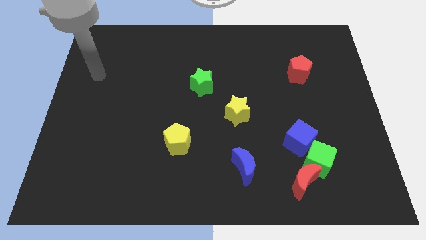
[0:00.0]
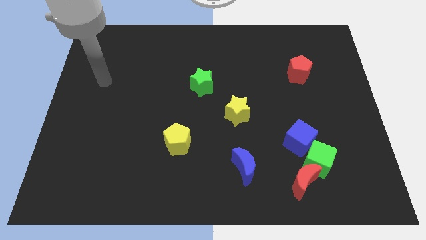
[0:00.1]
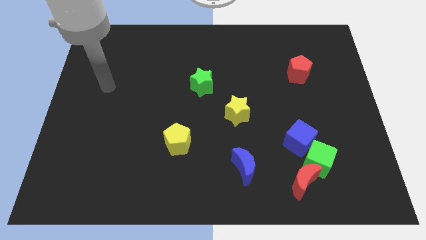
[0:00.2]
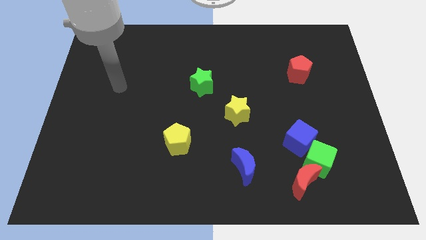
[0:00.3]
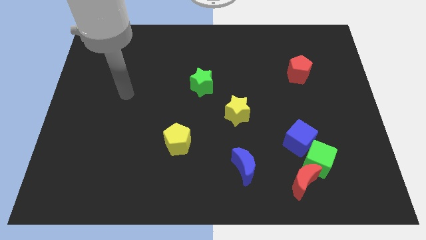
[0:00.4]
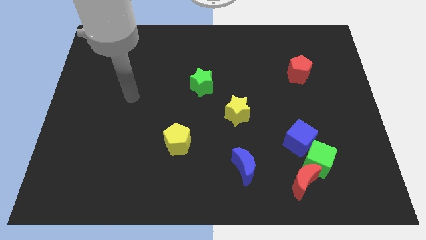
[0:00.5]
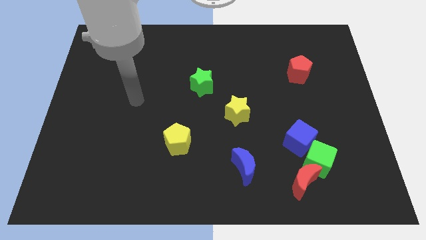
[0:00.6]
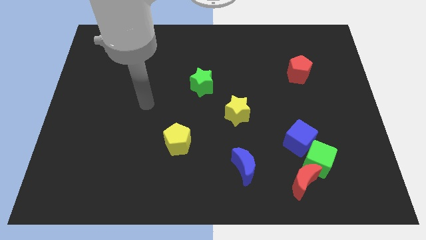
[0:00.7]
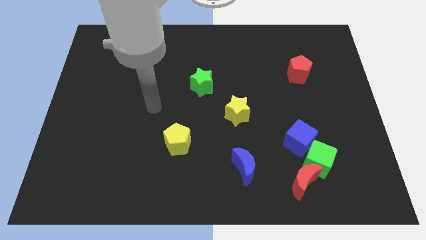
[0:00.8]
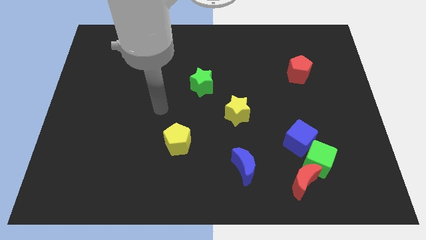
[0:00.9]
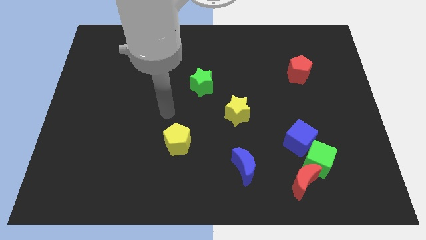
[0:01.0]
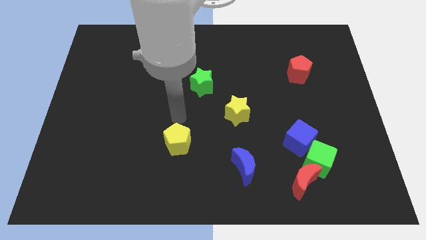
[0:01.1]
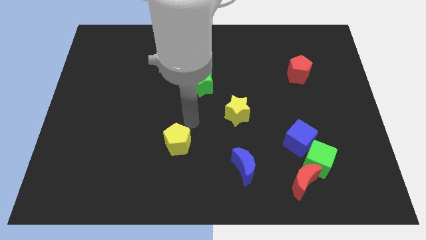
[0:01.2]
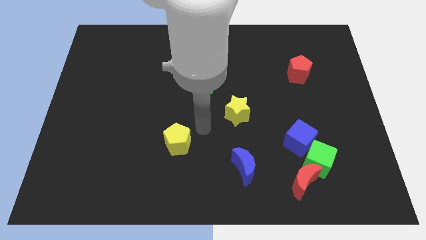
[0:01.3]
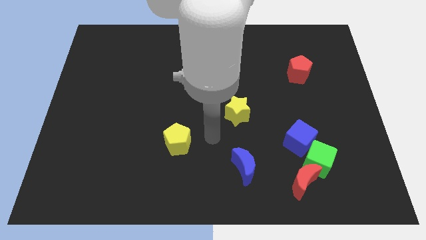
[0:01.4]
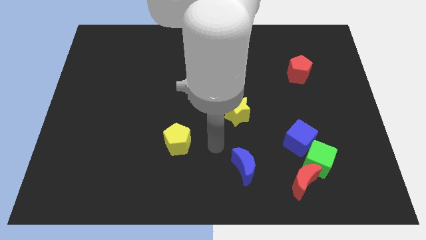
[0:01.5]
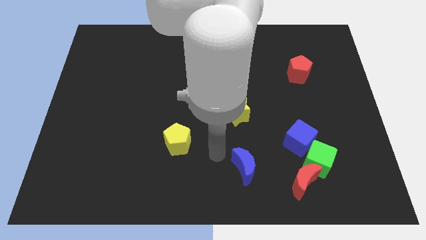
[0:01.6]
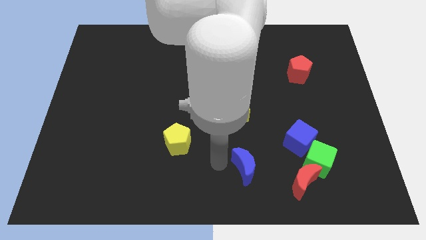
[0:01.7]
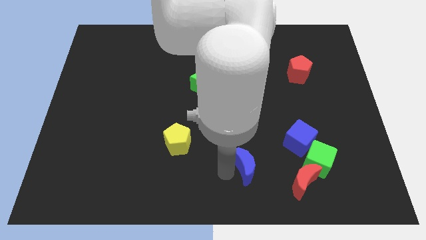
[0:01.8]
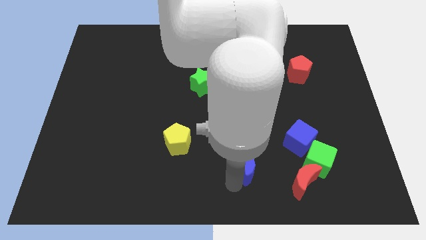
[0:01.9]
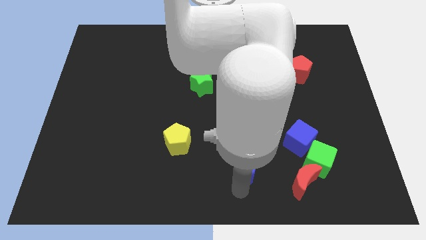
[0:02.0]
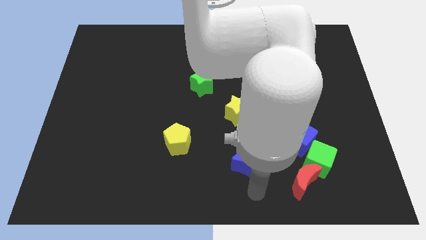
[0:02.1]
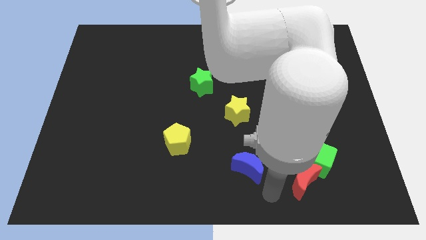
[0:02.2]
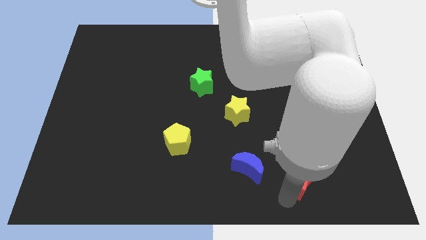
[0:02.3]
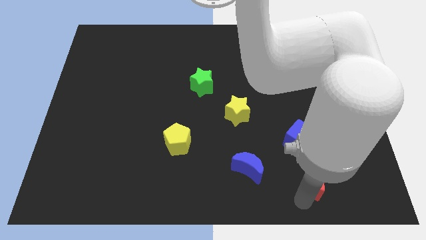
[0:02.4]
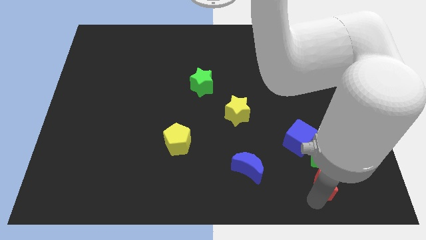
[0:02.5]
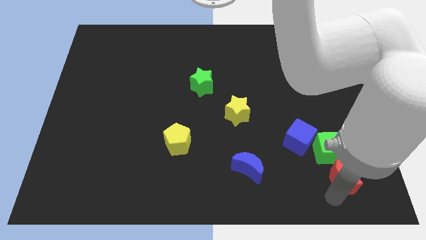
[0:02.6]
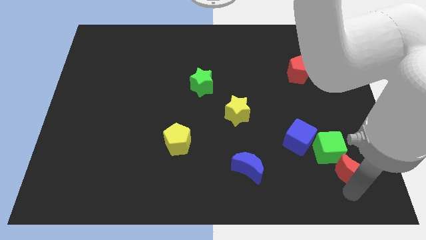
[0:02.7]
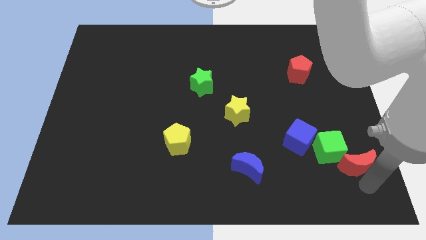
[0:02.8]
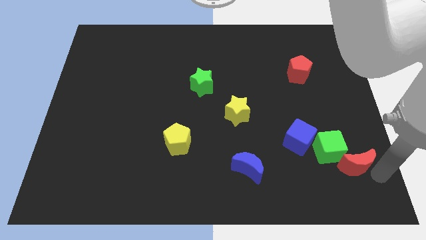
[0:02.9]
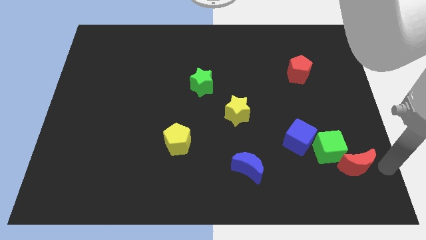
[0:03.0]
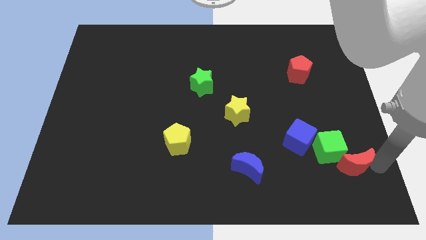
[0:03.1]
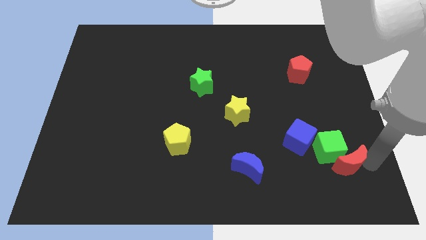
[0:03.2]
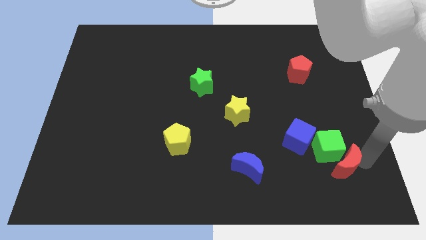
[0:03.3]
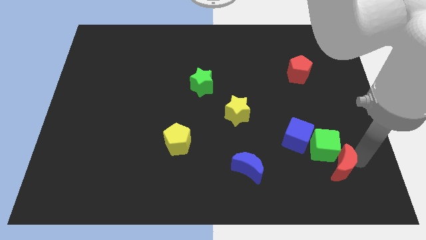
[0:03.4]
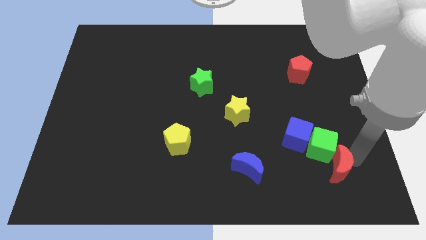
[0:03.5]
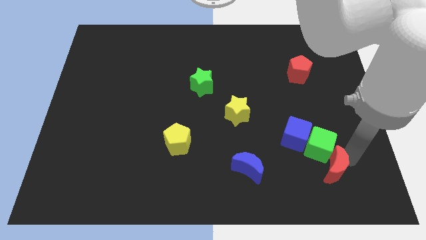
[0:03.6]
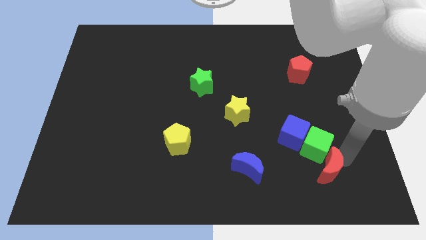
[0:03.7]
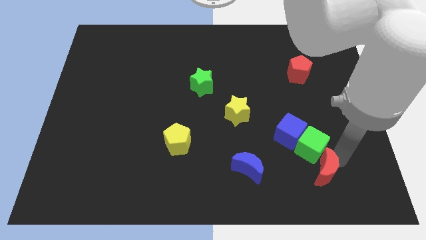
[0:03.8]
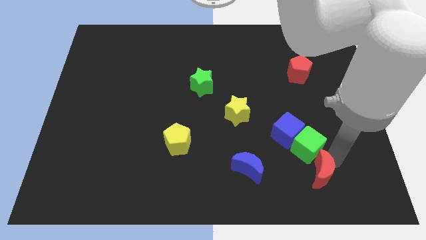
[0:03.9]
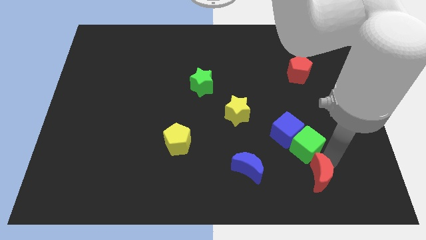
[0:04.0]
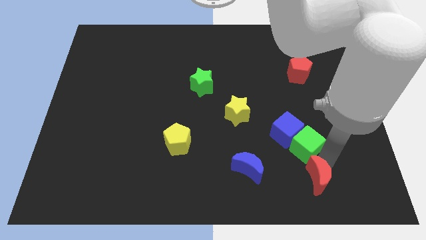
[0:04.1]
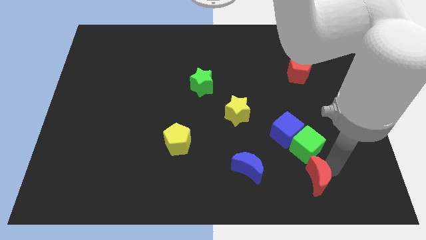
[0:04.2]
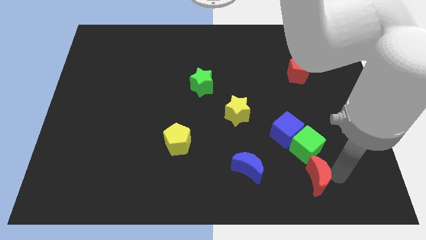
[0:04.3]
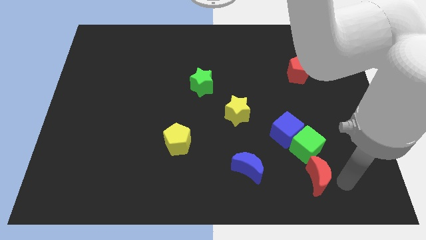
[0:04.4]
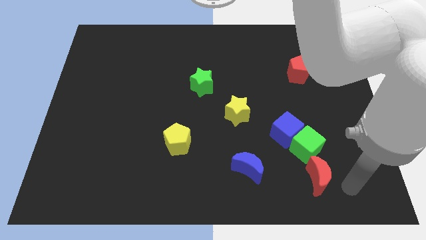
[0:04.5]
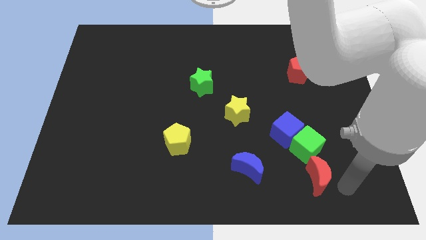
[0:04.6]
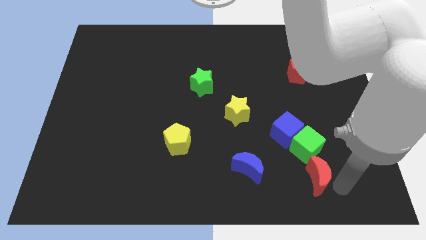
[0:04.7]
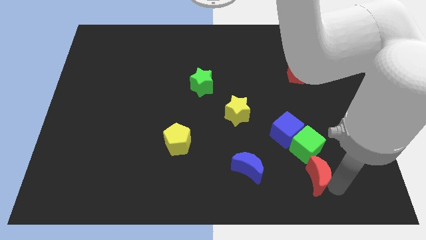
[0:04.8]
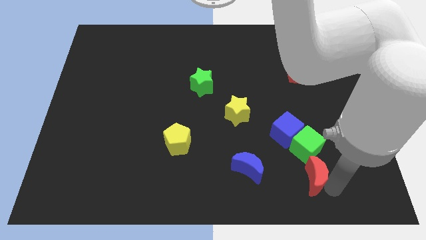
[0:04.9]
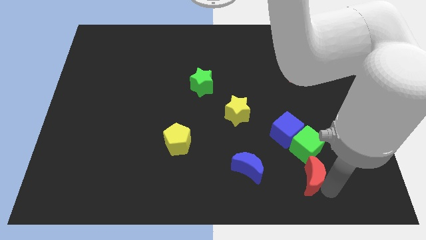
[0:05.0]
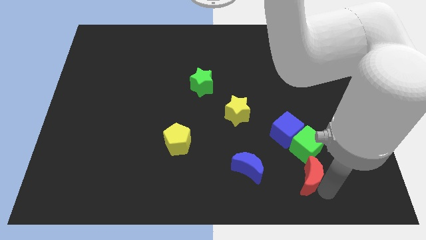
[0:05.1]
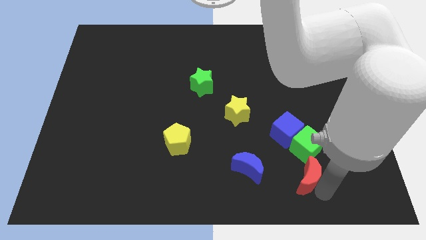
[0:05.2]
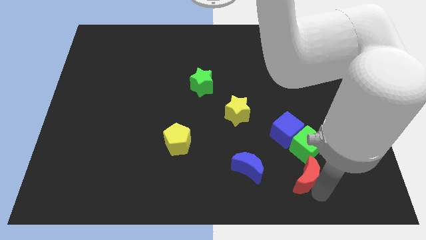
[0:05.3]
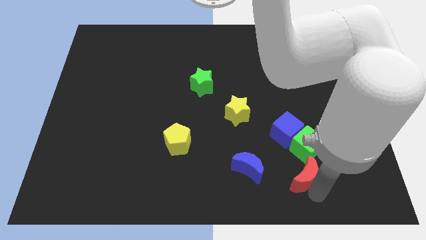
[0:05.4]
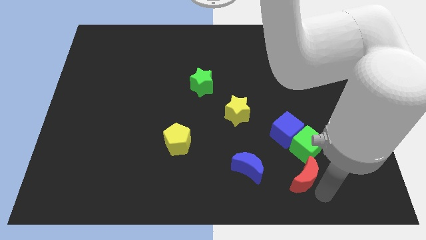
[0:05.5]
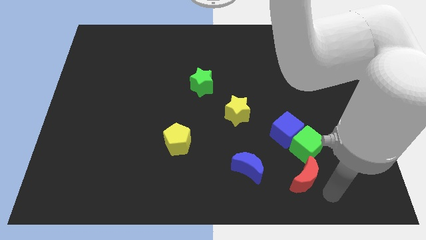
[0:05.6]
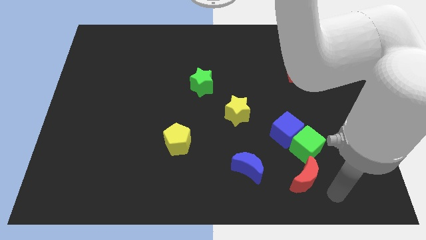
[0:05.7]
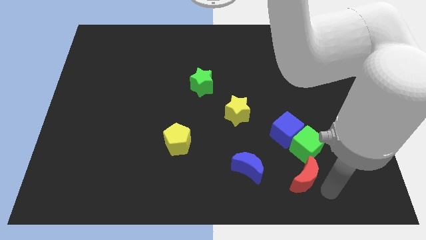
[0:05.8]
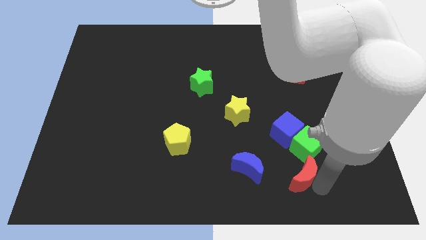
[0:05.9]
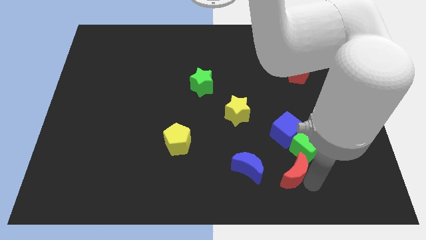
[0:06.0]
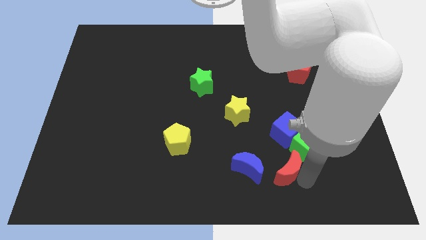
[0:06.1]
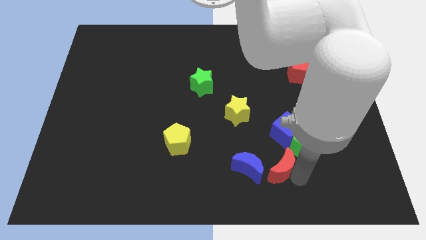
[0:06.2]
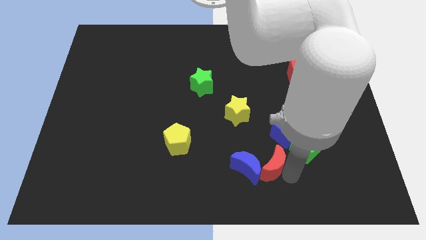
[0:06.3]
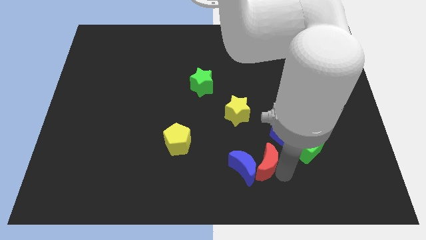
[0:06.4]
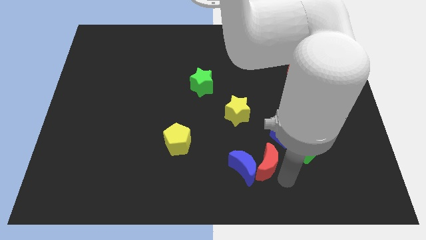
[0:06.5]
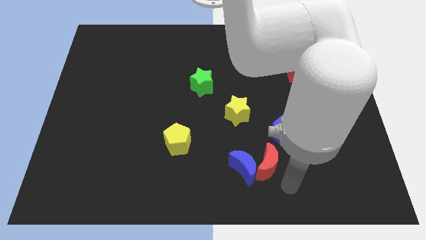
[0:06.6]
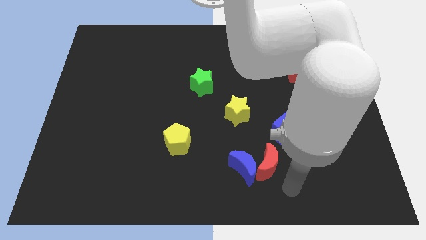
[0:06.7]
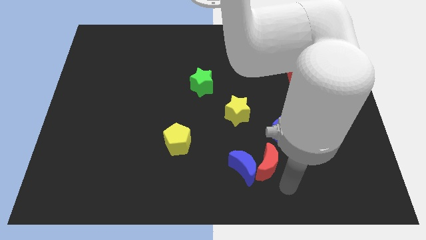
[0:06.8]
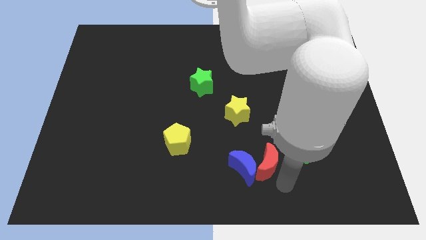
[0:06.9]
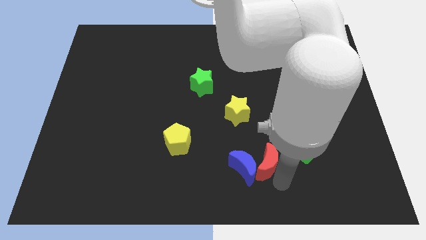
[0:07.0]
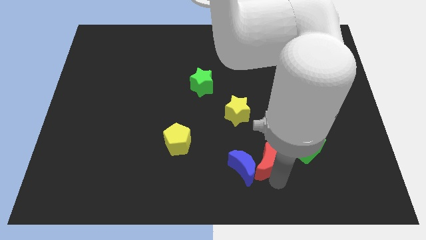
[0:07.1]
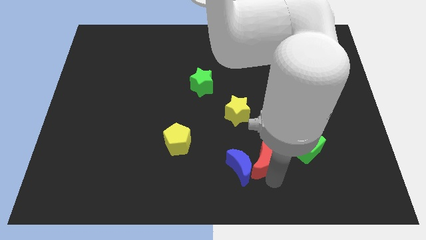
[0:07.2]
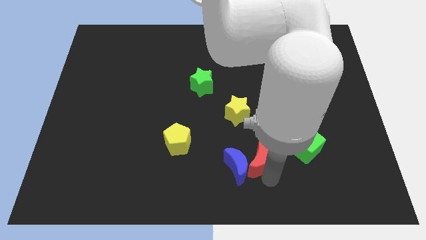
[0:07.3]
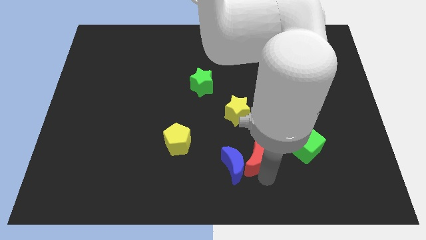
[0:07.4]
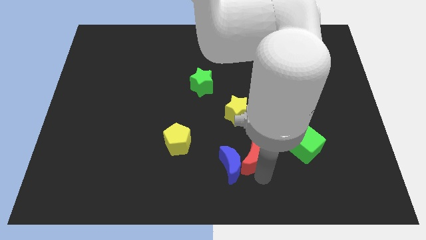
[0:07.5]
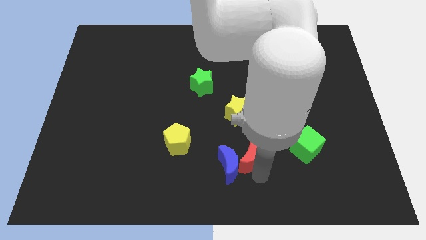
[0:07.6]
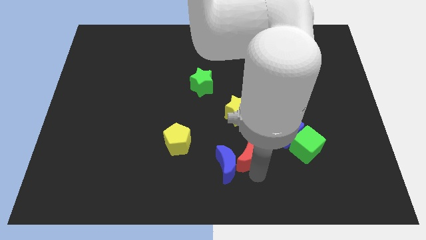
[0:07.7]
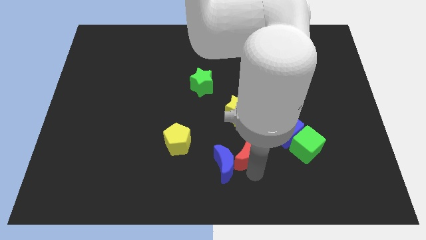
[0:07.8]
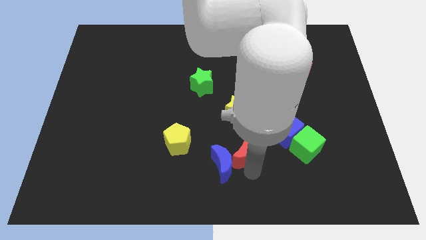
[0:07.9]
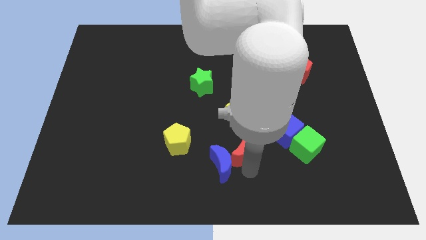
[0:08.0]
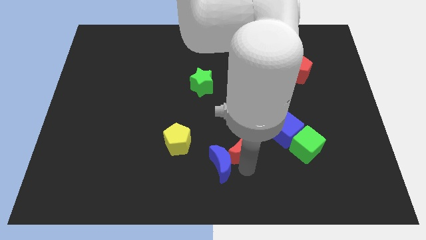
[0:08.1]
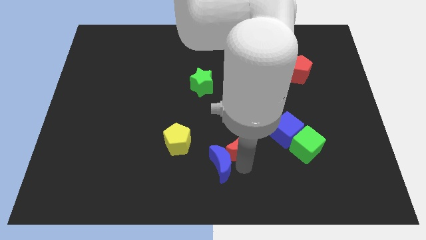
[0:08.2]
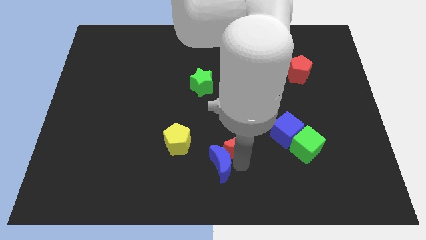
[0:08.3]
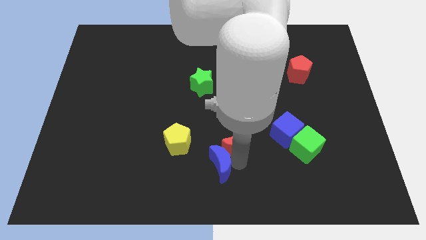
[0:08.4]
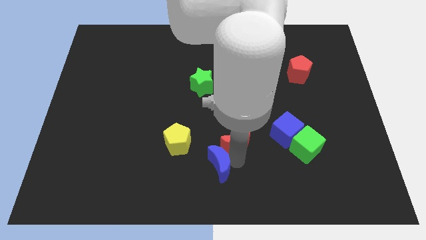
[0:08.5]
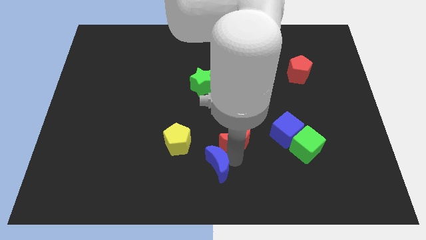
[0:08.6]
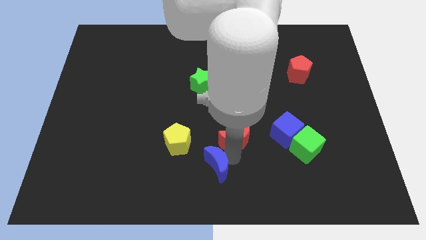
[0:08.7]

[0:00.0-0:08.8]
move the red moon to the center
